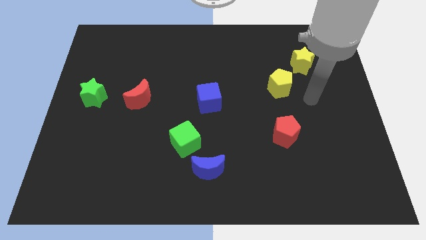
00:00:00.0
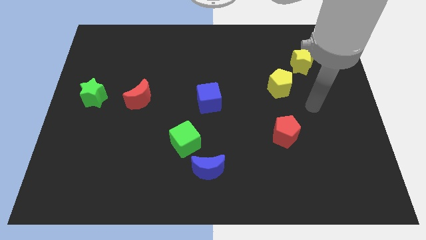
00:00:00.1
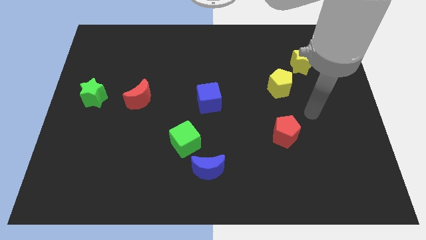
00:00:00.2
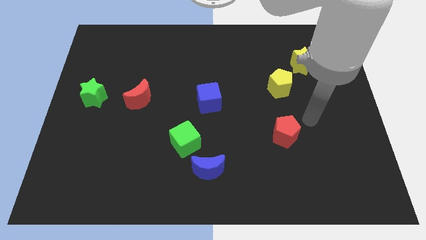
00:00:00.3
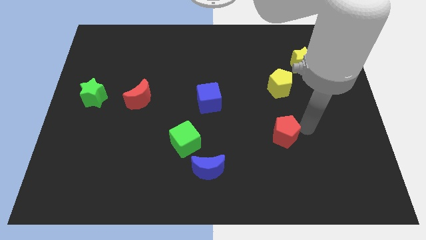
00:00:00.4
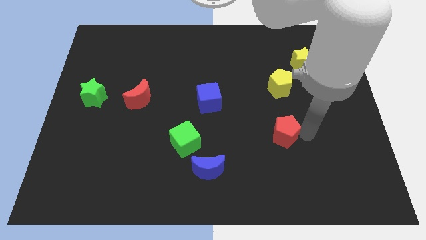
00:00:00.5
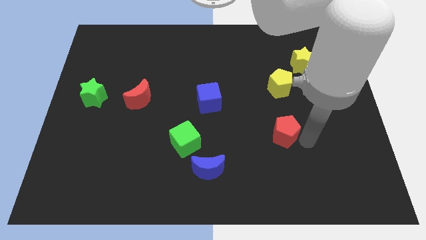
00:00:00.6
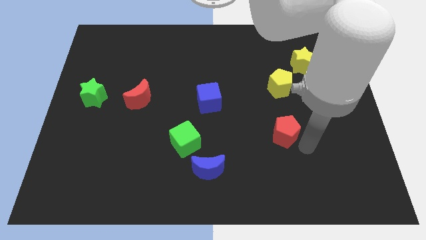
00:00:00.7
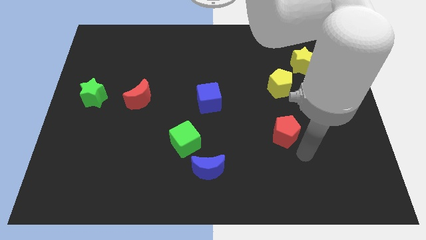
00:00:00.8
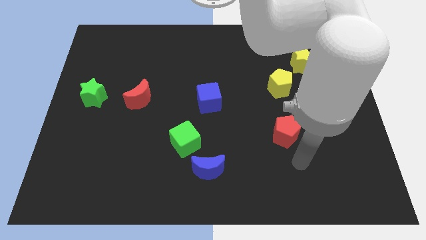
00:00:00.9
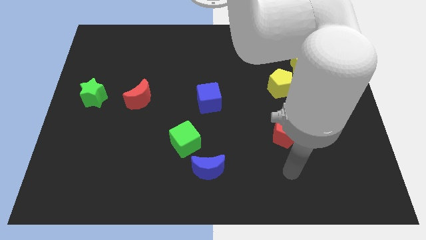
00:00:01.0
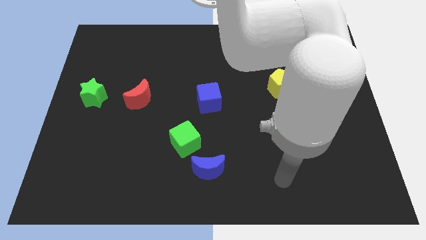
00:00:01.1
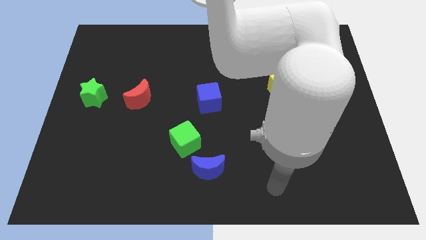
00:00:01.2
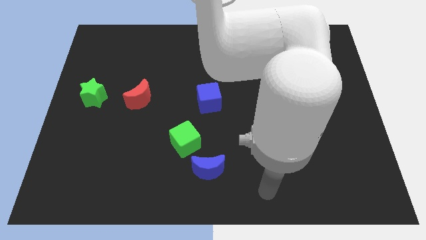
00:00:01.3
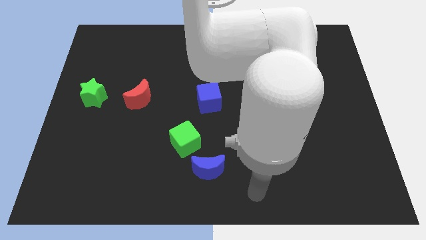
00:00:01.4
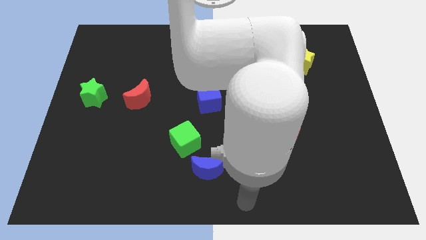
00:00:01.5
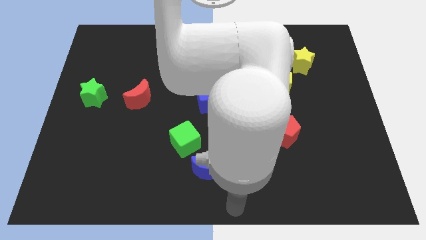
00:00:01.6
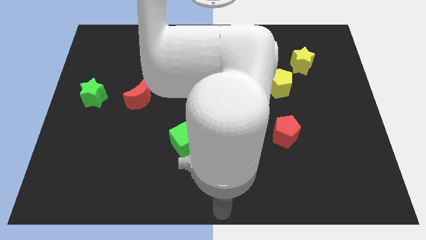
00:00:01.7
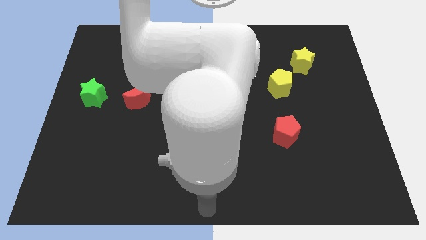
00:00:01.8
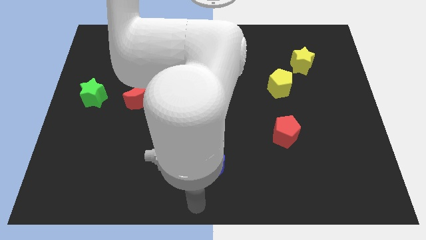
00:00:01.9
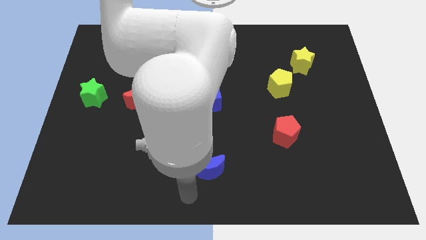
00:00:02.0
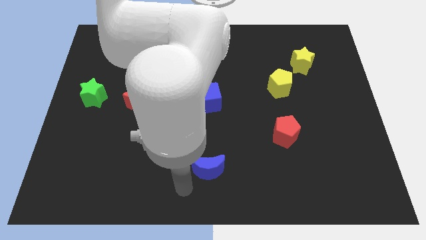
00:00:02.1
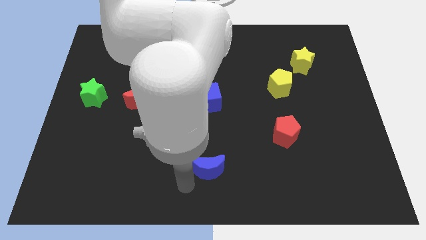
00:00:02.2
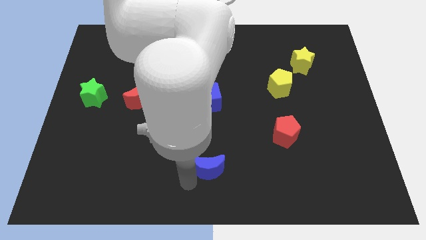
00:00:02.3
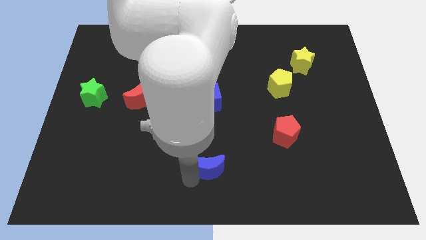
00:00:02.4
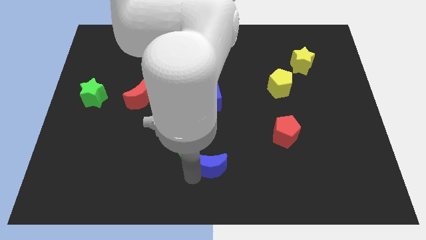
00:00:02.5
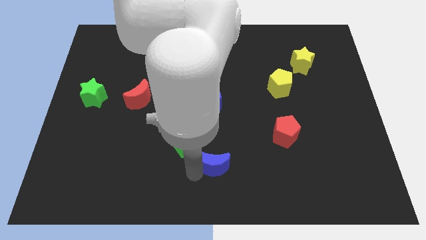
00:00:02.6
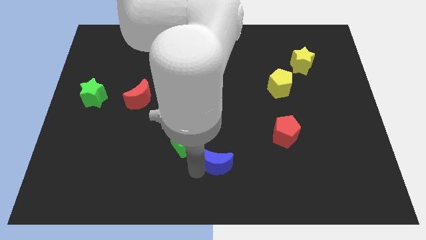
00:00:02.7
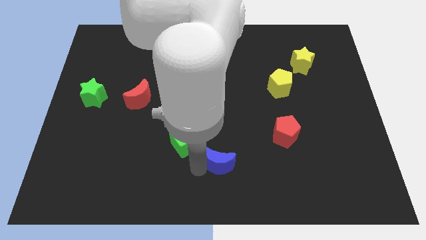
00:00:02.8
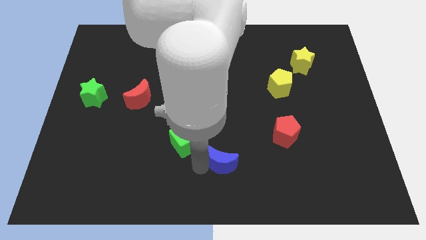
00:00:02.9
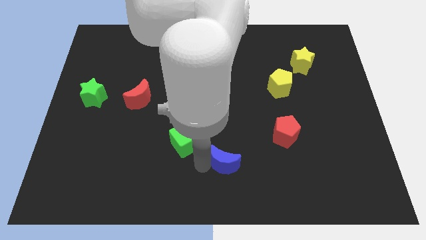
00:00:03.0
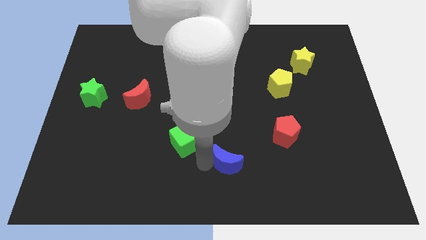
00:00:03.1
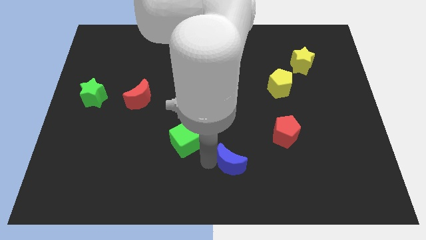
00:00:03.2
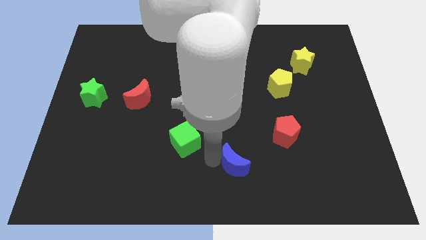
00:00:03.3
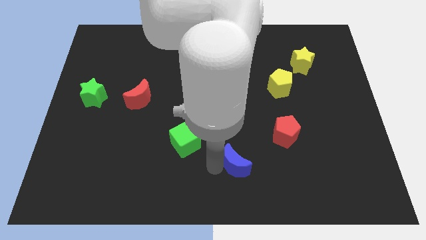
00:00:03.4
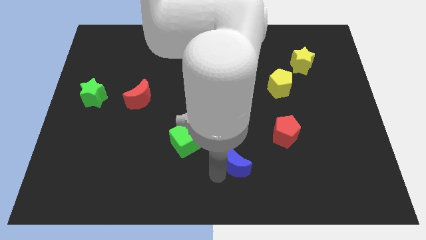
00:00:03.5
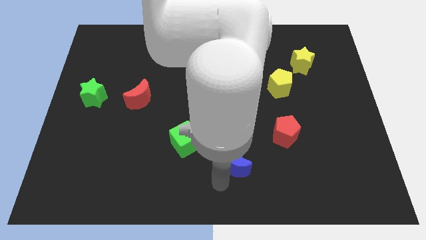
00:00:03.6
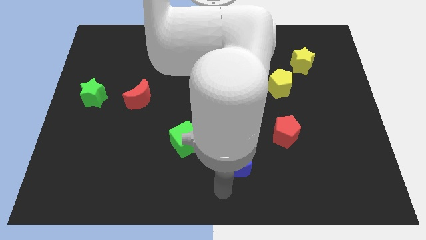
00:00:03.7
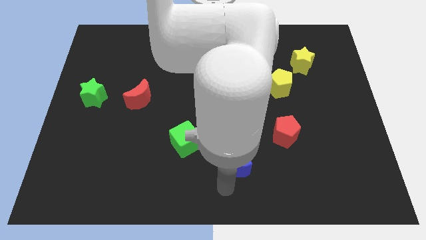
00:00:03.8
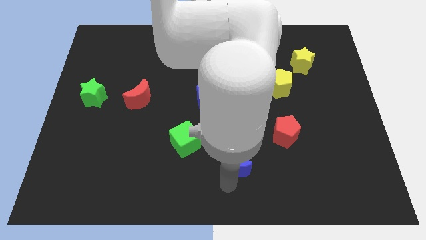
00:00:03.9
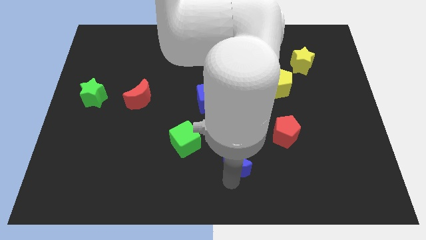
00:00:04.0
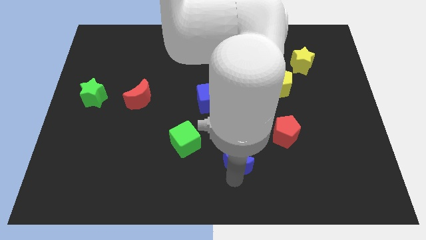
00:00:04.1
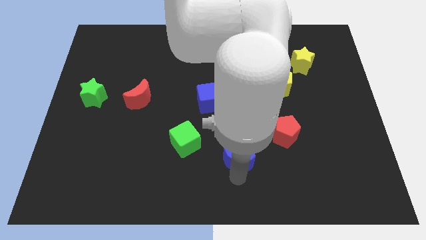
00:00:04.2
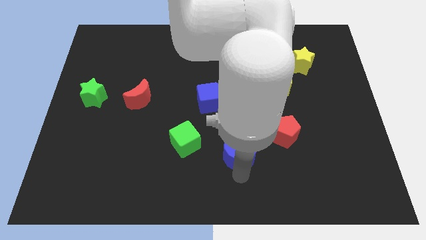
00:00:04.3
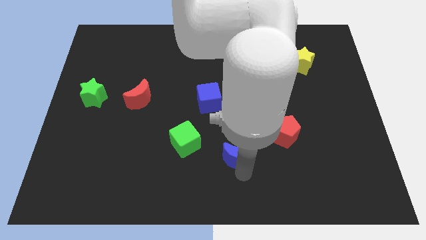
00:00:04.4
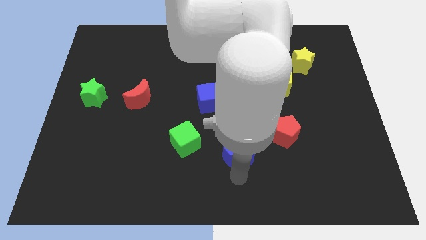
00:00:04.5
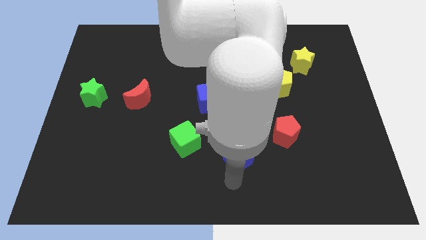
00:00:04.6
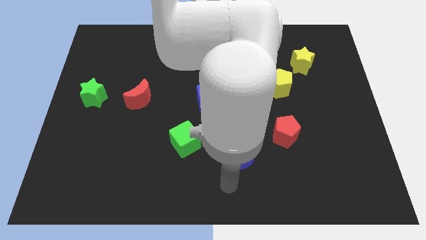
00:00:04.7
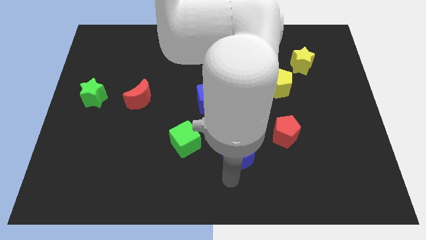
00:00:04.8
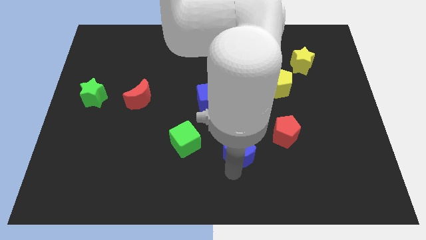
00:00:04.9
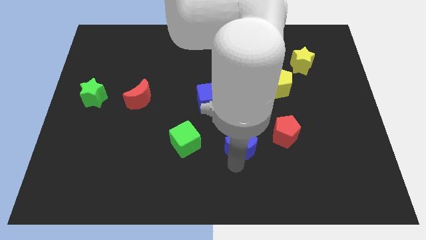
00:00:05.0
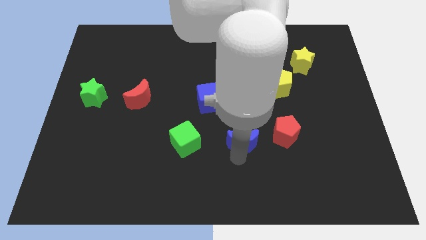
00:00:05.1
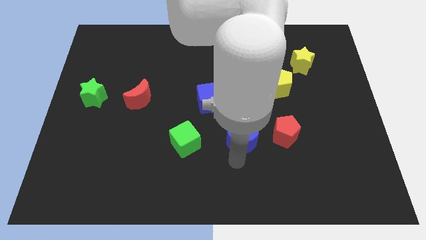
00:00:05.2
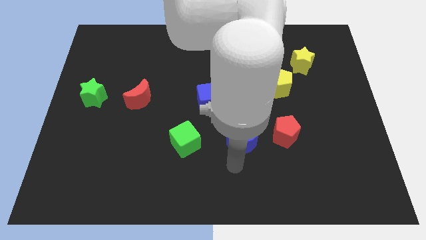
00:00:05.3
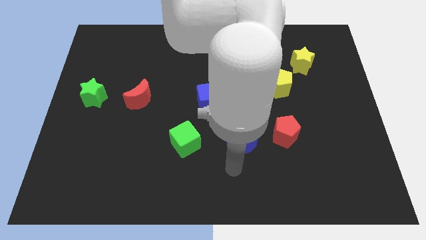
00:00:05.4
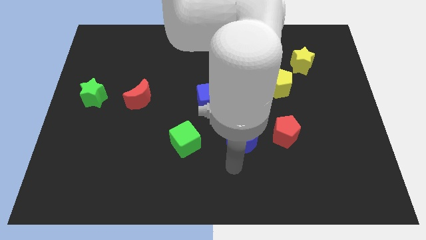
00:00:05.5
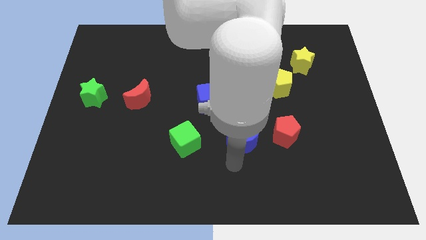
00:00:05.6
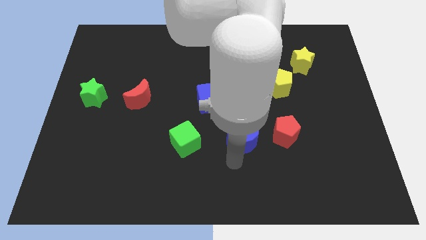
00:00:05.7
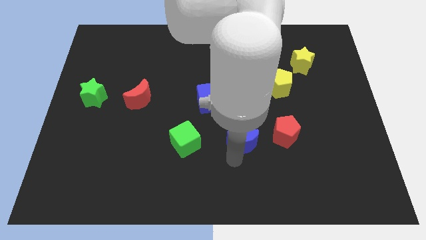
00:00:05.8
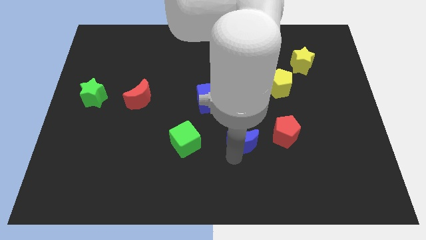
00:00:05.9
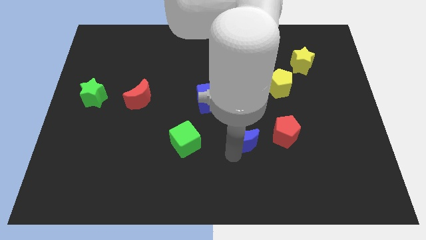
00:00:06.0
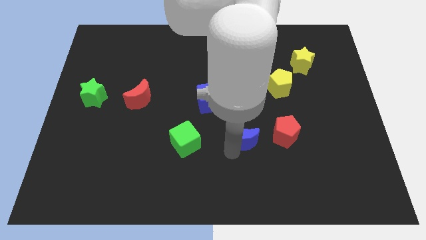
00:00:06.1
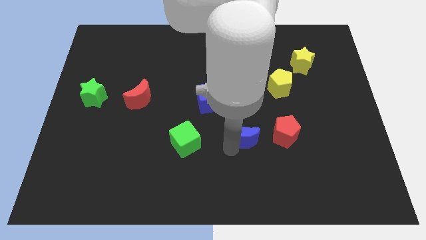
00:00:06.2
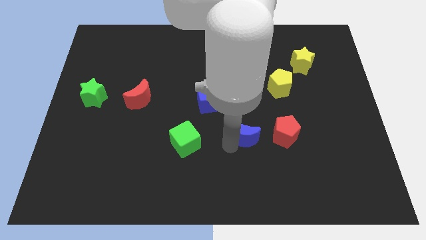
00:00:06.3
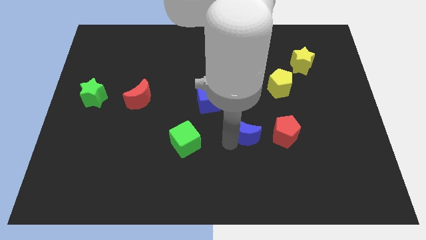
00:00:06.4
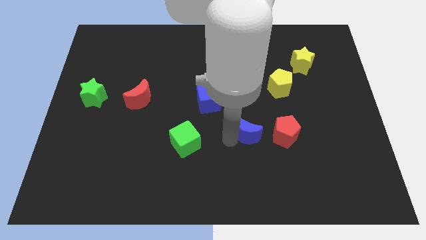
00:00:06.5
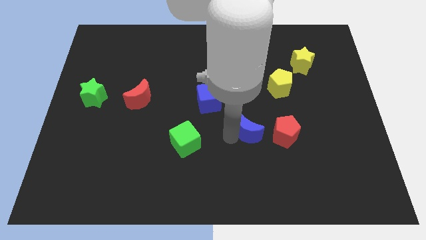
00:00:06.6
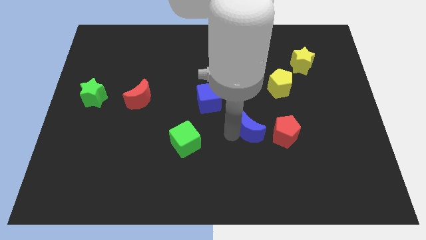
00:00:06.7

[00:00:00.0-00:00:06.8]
slide the blue moon to the top left side of the red pentagon

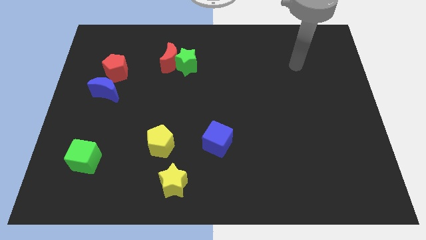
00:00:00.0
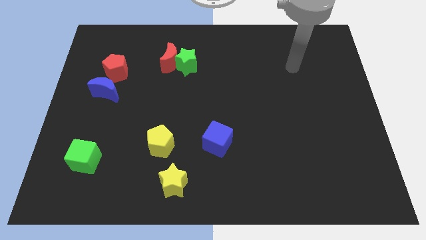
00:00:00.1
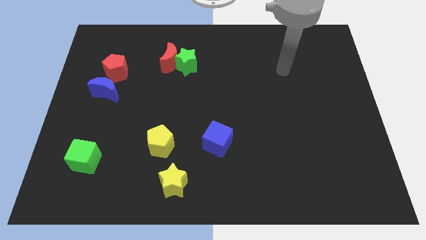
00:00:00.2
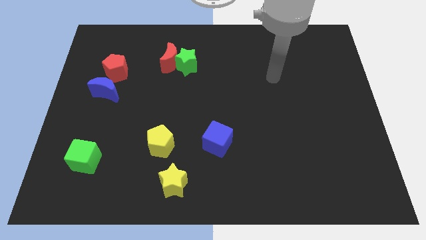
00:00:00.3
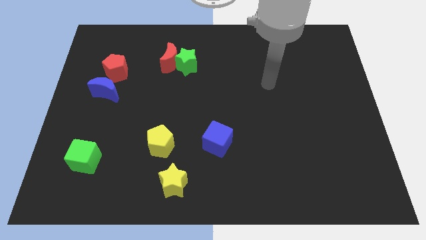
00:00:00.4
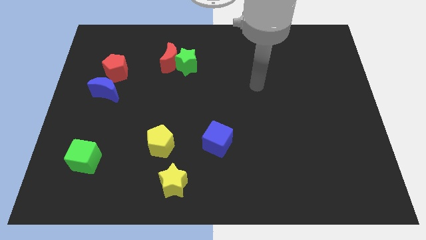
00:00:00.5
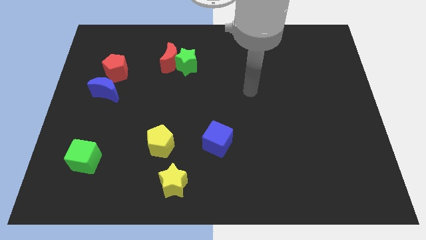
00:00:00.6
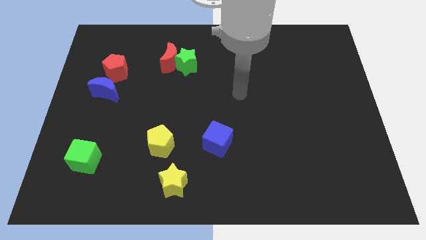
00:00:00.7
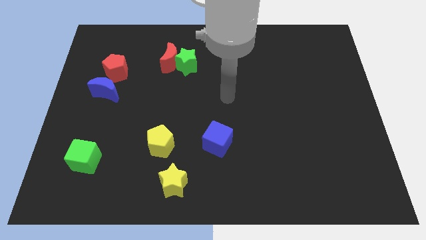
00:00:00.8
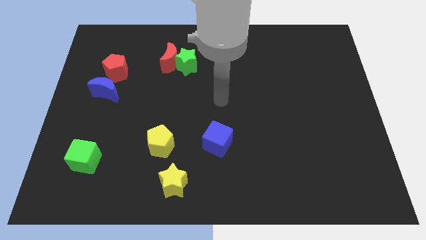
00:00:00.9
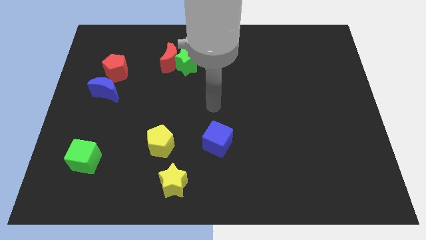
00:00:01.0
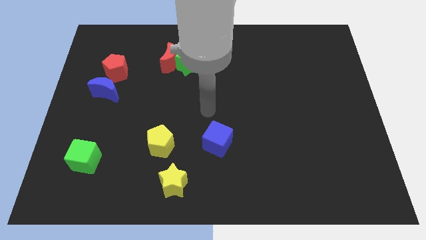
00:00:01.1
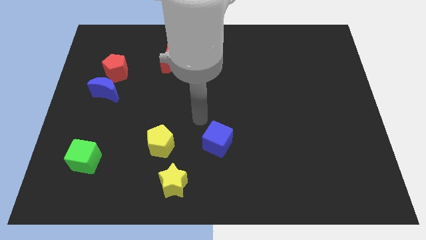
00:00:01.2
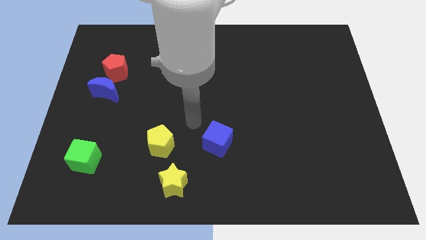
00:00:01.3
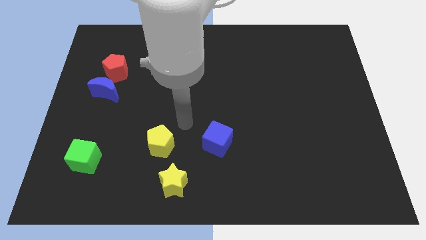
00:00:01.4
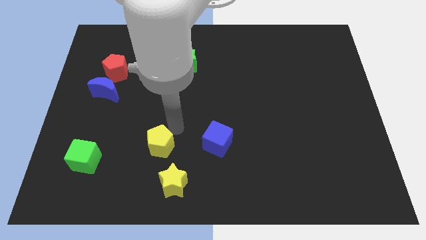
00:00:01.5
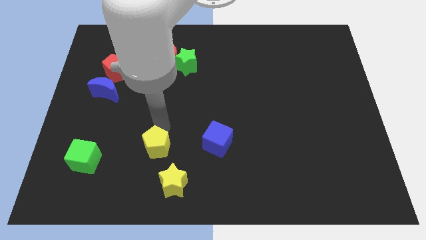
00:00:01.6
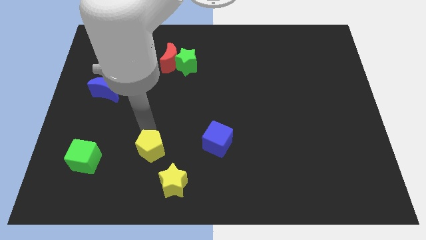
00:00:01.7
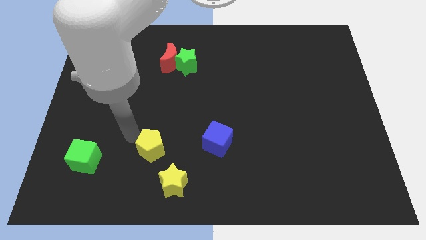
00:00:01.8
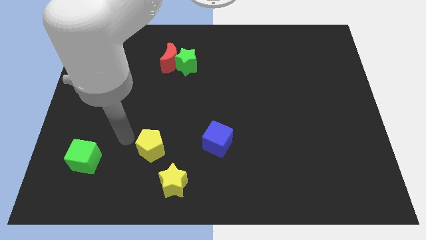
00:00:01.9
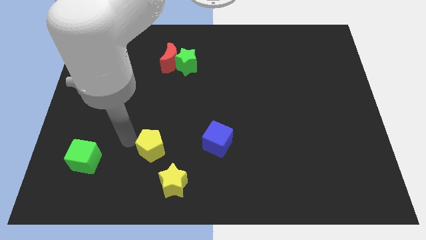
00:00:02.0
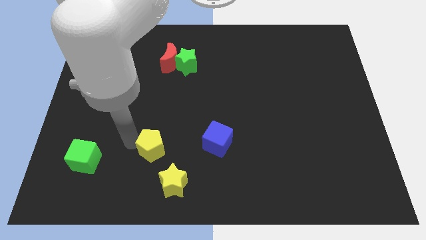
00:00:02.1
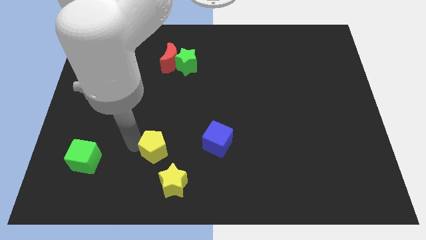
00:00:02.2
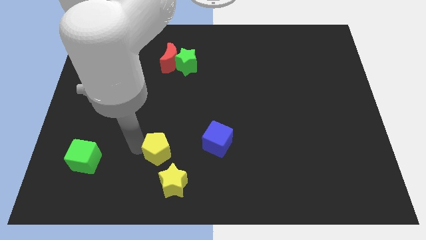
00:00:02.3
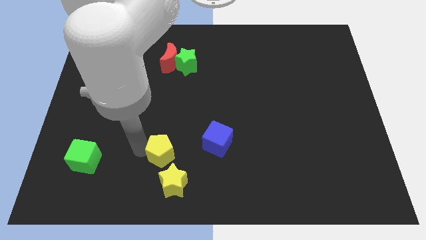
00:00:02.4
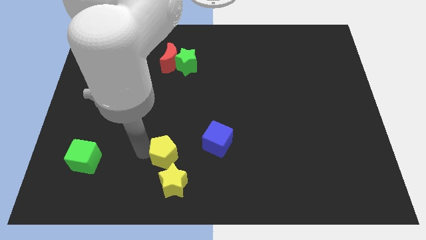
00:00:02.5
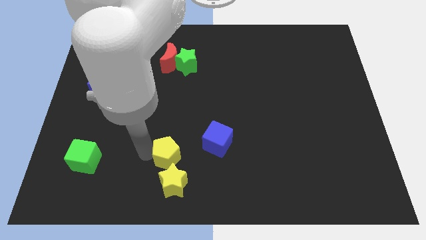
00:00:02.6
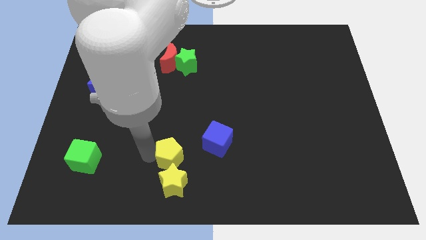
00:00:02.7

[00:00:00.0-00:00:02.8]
put the yellow pentagon diagonally down and to the left of the blue cube
